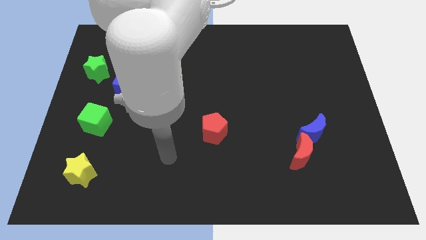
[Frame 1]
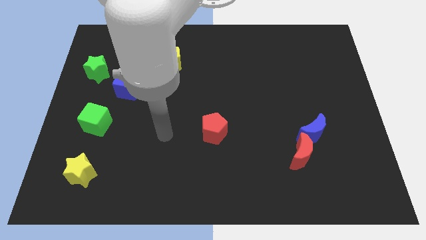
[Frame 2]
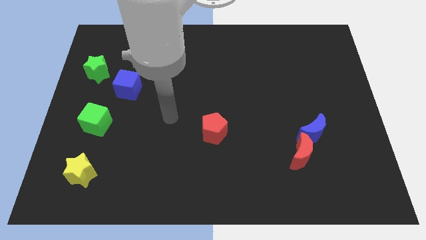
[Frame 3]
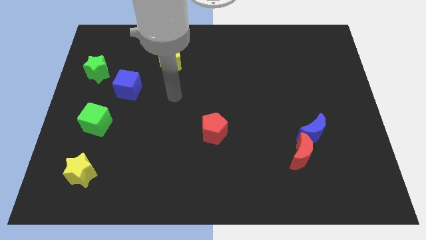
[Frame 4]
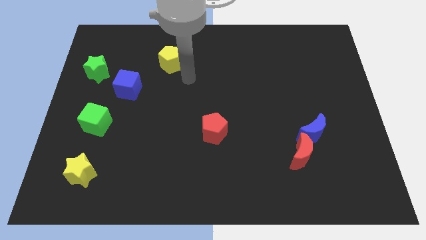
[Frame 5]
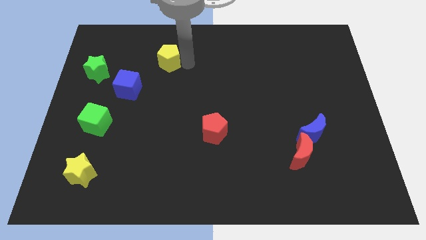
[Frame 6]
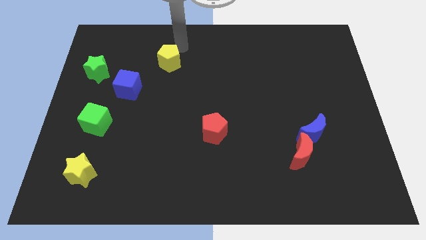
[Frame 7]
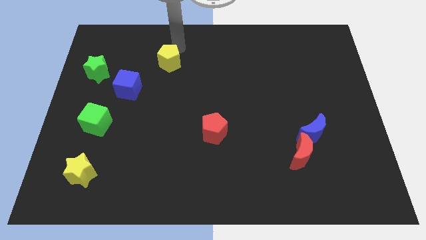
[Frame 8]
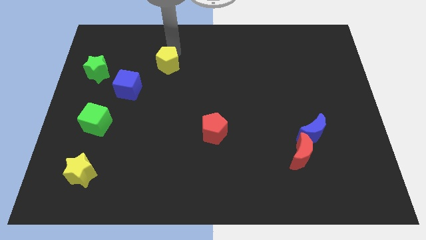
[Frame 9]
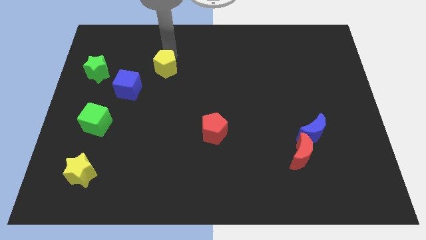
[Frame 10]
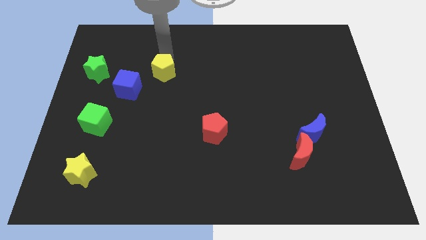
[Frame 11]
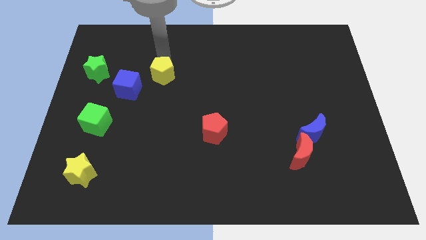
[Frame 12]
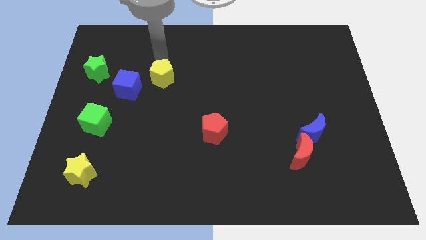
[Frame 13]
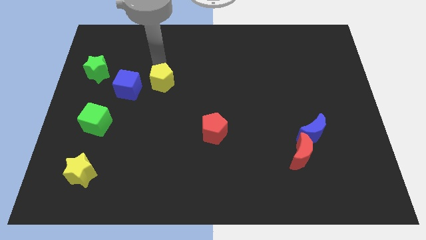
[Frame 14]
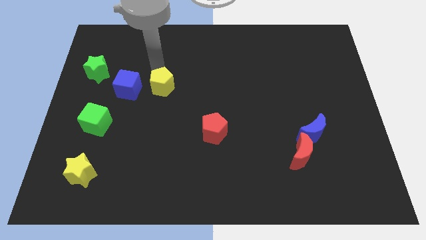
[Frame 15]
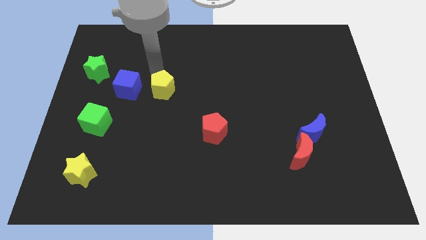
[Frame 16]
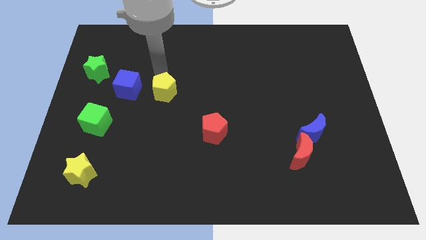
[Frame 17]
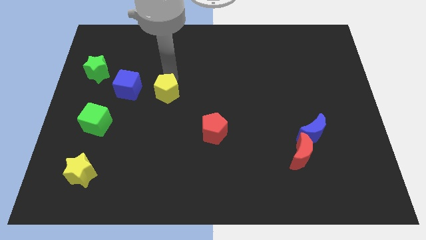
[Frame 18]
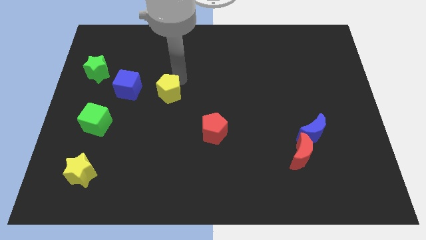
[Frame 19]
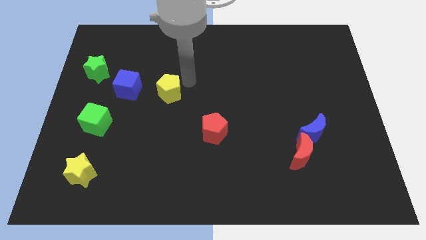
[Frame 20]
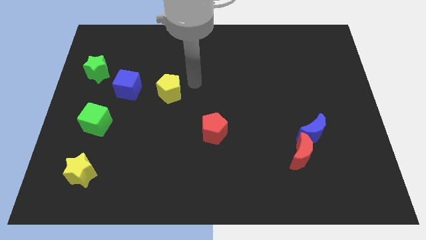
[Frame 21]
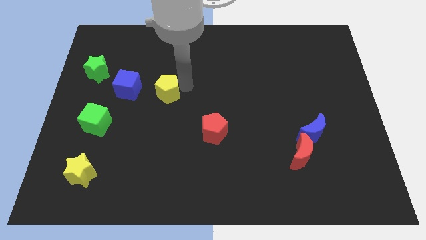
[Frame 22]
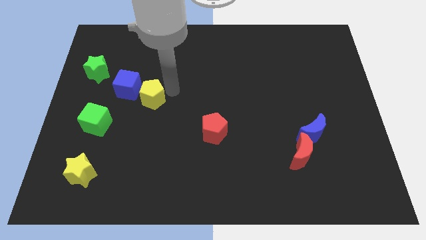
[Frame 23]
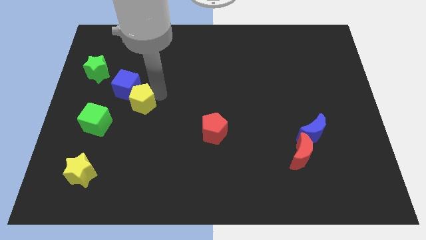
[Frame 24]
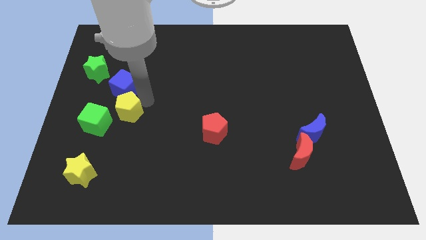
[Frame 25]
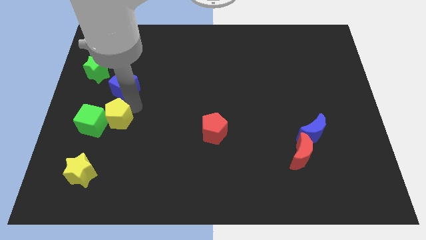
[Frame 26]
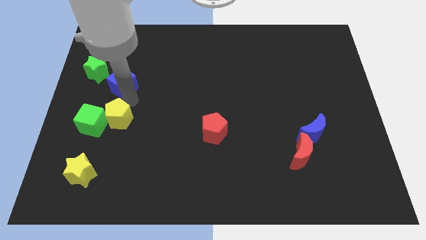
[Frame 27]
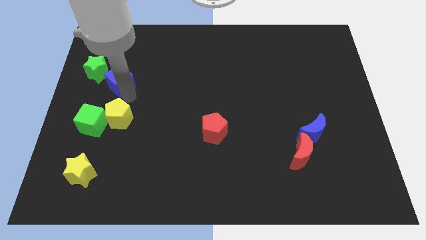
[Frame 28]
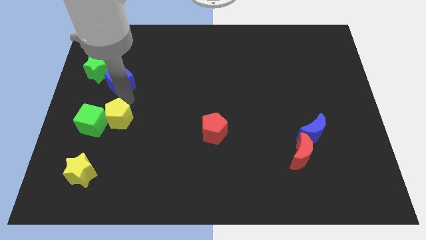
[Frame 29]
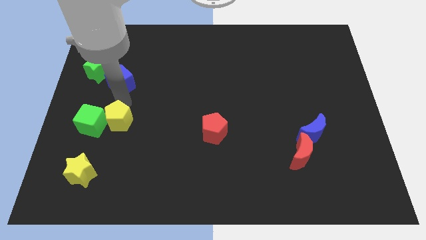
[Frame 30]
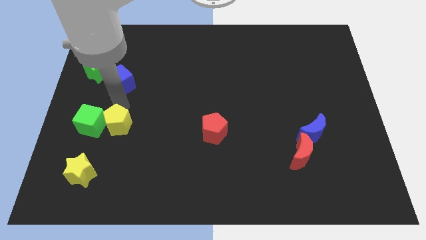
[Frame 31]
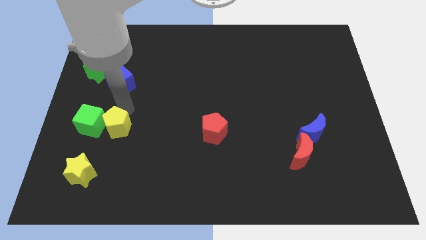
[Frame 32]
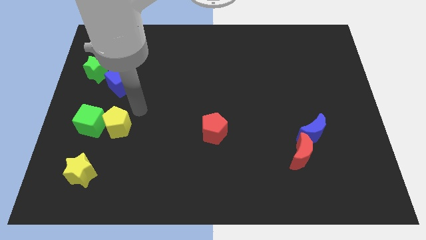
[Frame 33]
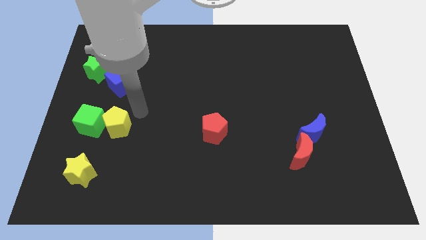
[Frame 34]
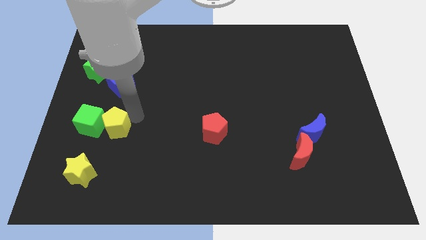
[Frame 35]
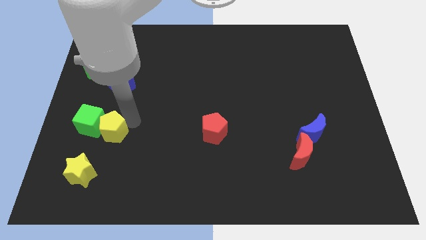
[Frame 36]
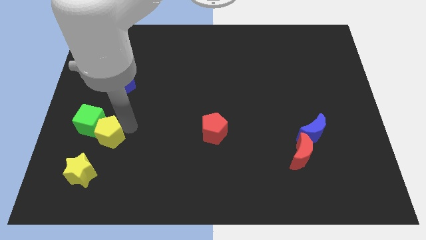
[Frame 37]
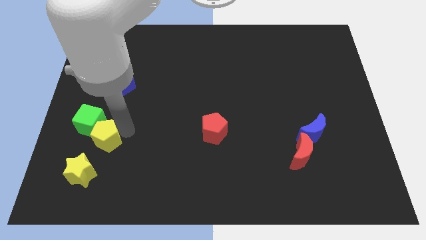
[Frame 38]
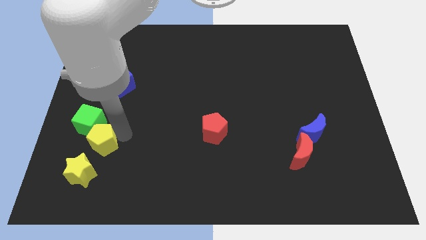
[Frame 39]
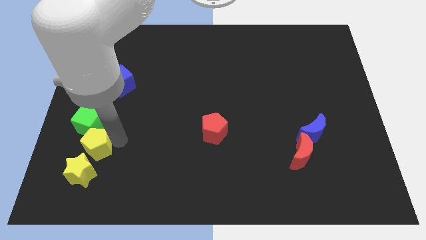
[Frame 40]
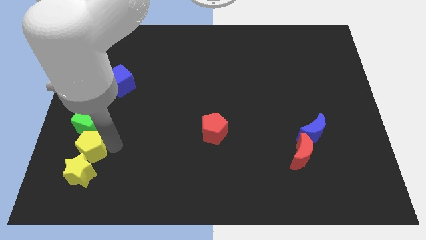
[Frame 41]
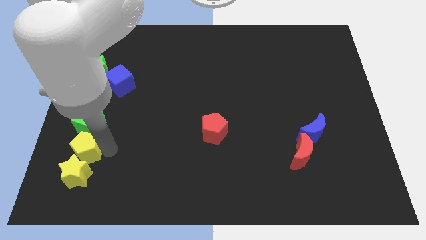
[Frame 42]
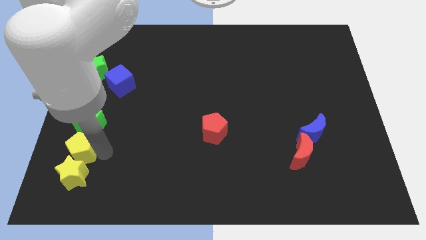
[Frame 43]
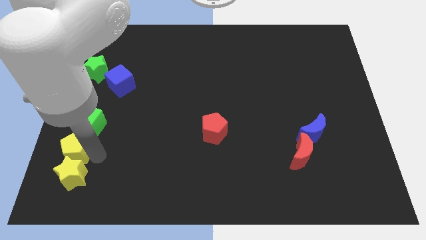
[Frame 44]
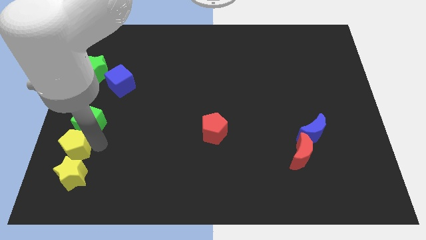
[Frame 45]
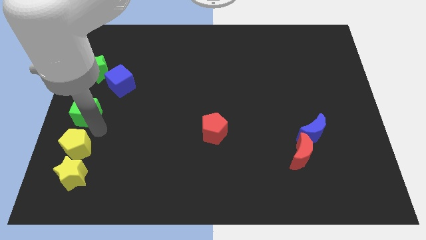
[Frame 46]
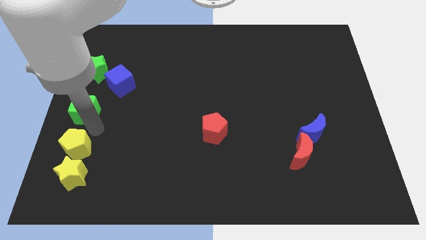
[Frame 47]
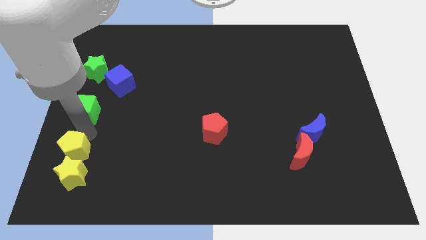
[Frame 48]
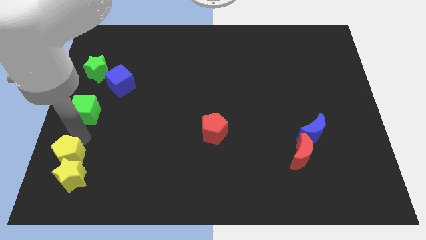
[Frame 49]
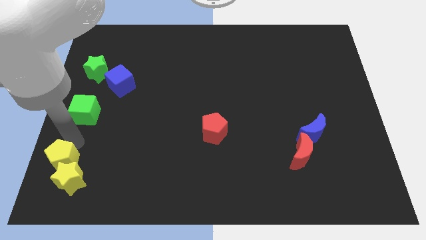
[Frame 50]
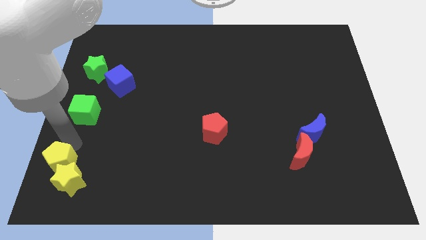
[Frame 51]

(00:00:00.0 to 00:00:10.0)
push the yellow pentagon to the bottom left of the board

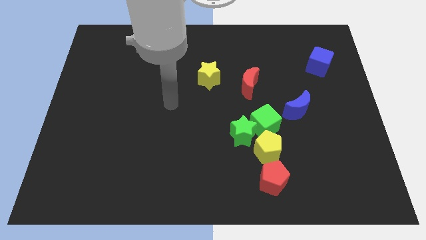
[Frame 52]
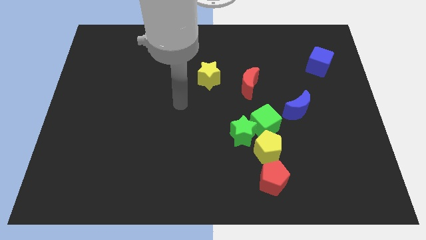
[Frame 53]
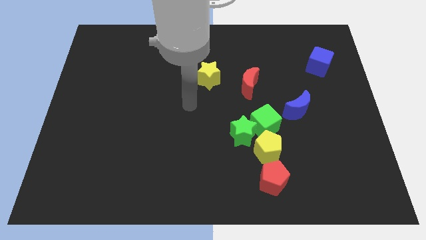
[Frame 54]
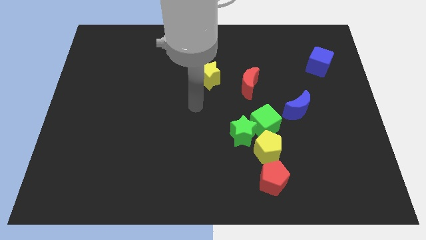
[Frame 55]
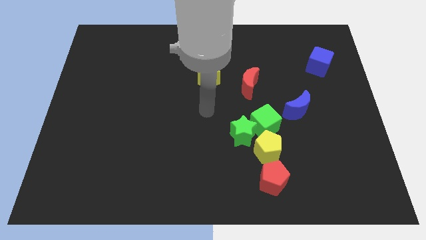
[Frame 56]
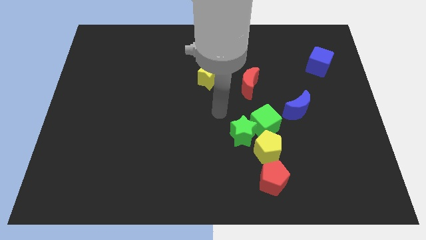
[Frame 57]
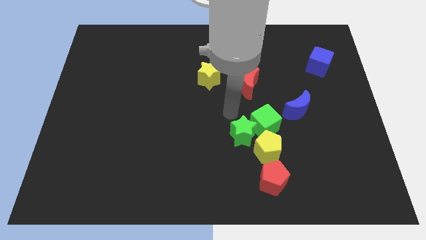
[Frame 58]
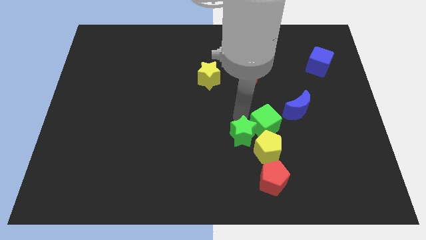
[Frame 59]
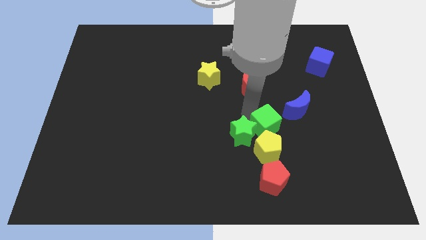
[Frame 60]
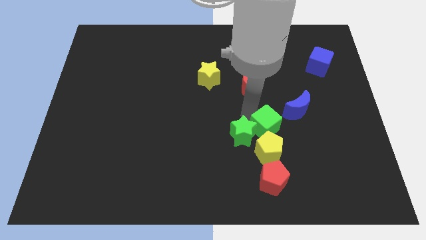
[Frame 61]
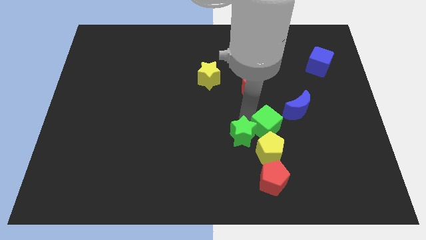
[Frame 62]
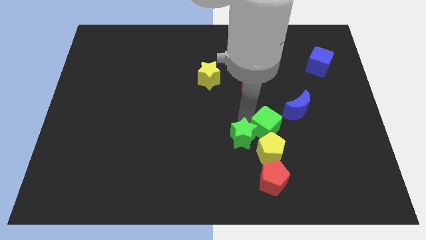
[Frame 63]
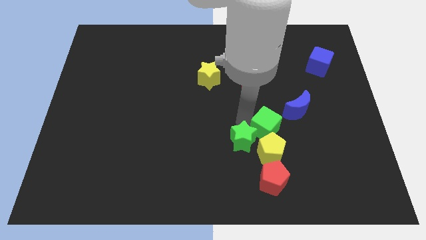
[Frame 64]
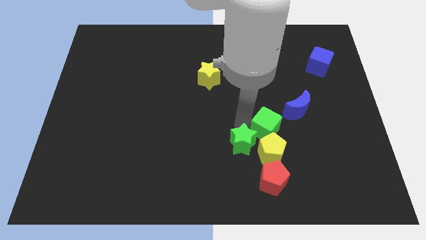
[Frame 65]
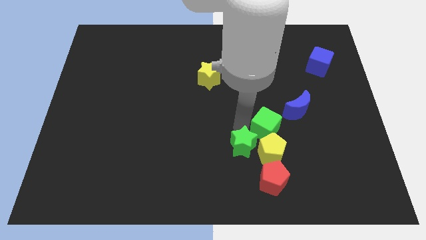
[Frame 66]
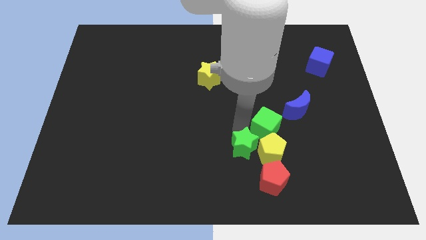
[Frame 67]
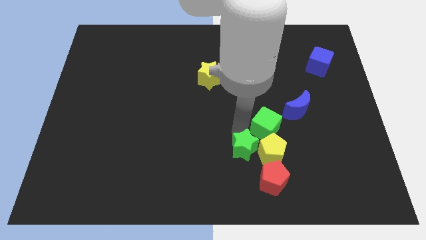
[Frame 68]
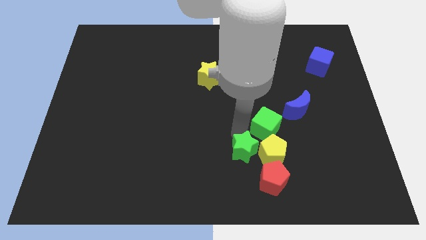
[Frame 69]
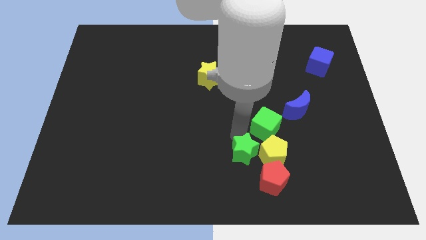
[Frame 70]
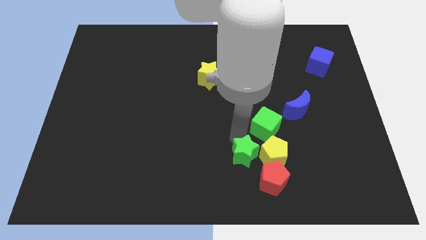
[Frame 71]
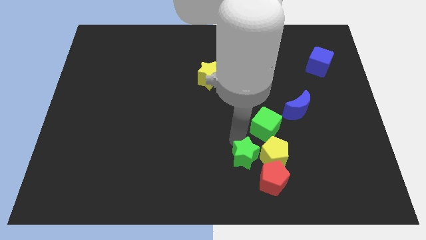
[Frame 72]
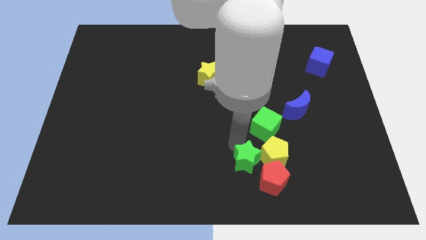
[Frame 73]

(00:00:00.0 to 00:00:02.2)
slide the green star to the bottom side
